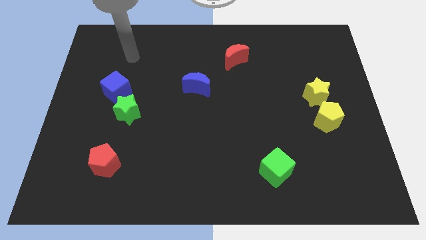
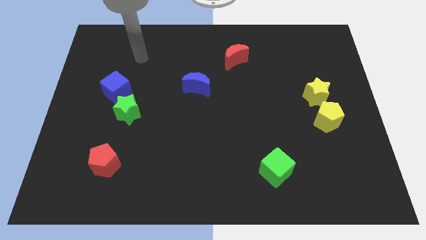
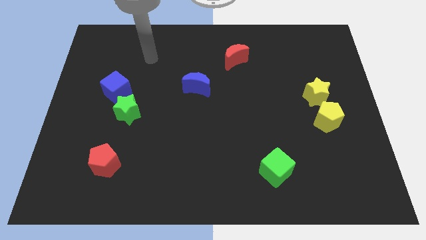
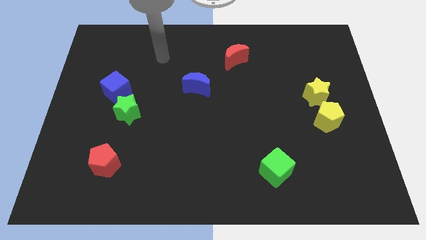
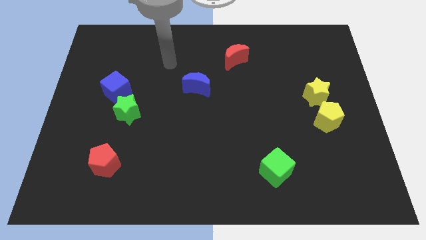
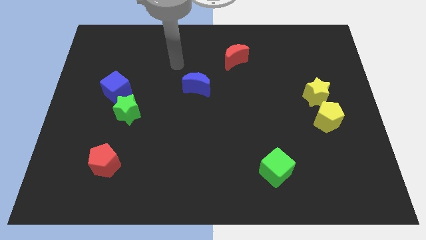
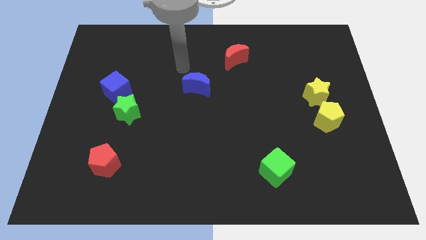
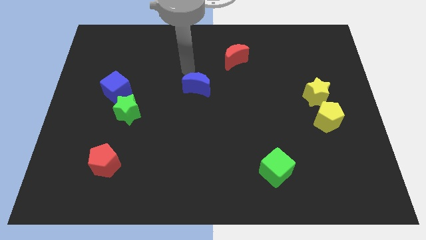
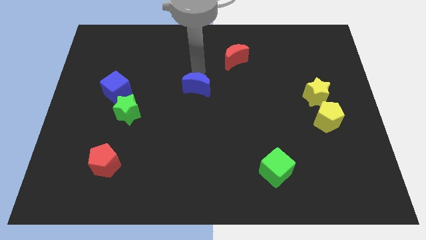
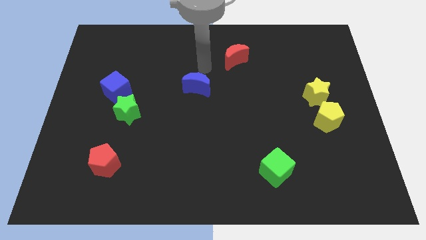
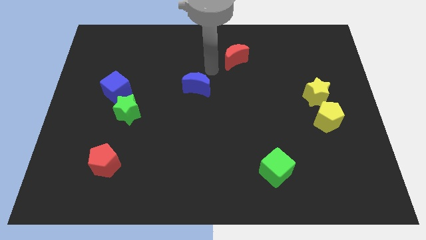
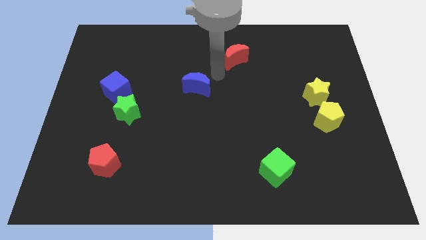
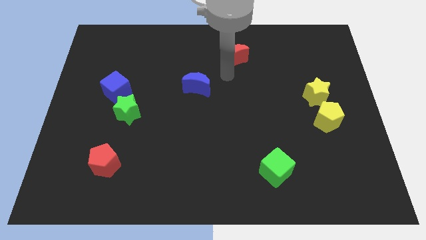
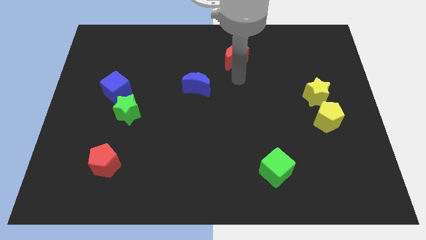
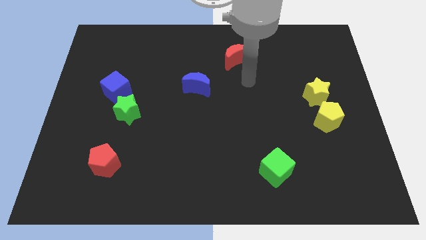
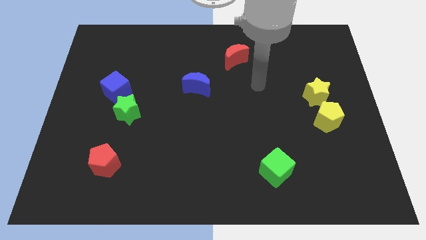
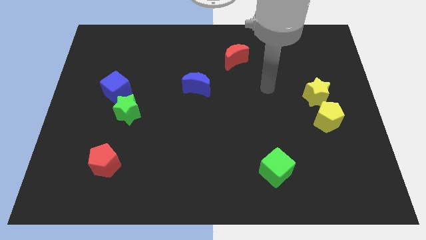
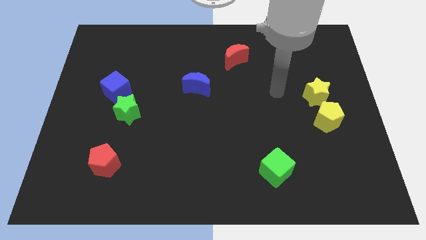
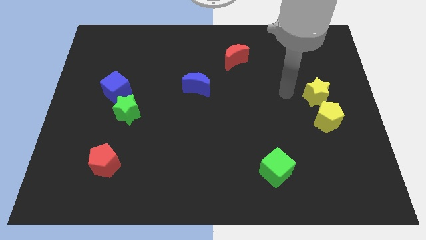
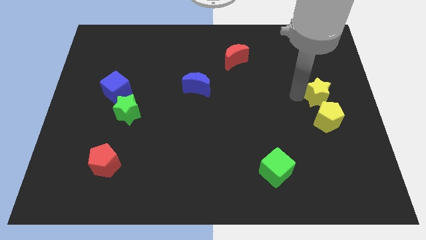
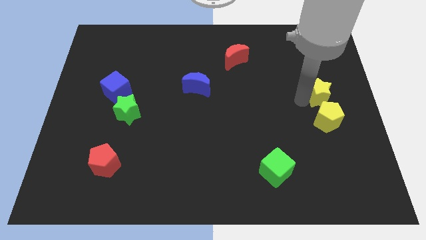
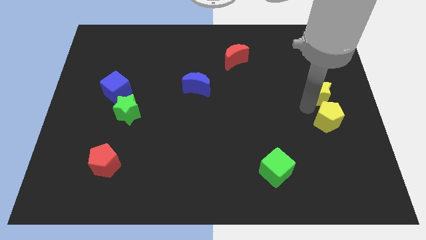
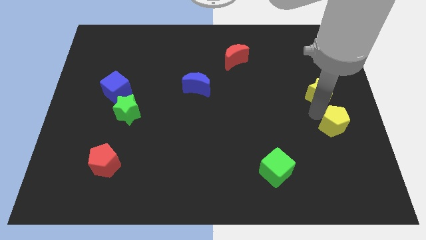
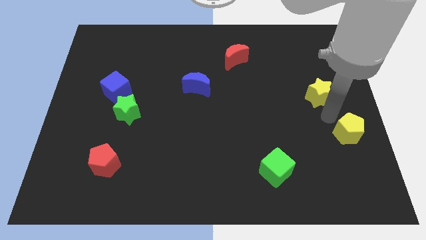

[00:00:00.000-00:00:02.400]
pull the yellow star apart from the yellow pentagon

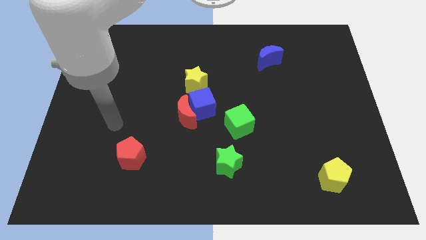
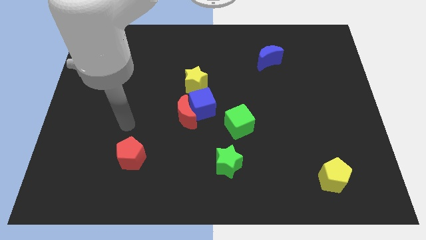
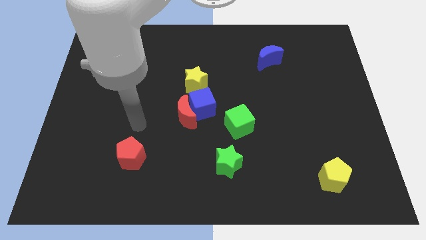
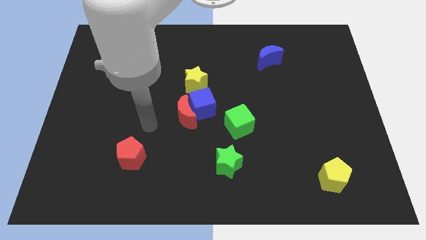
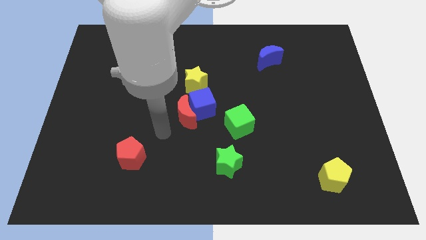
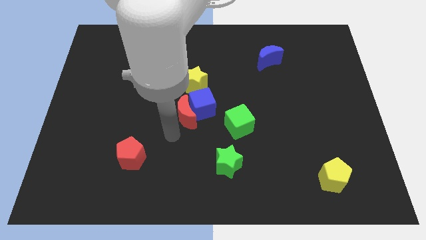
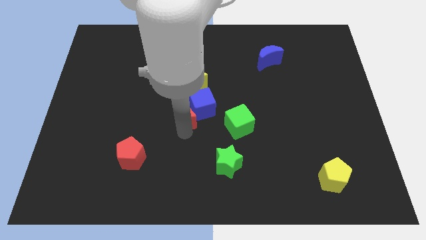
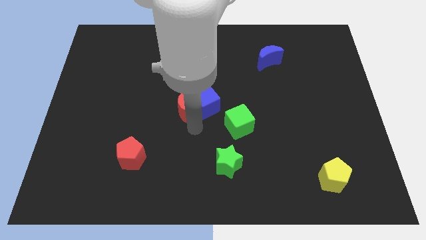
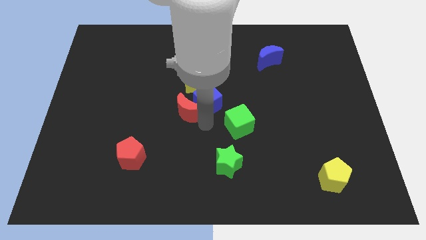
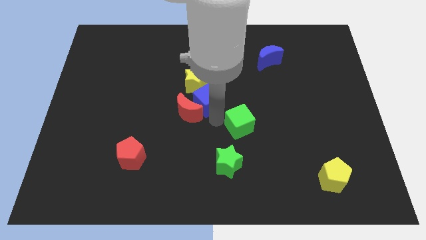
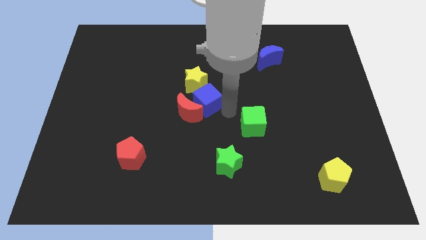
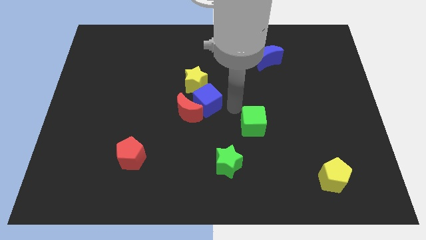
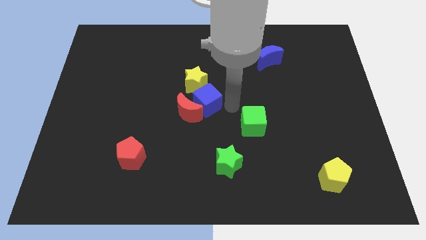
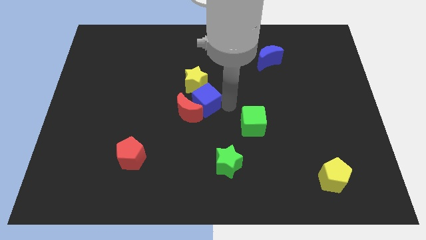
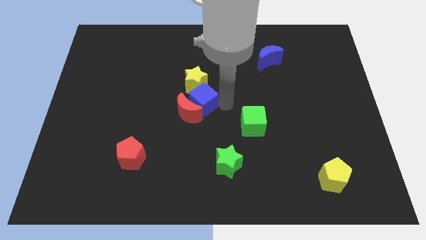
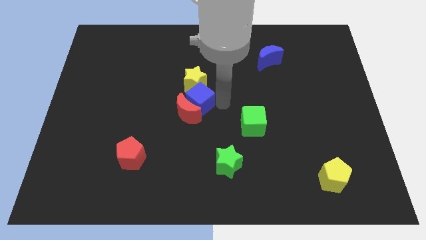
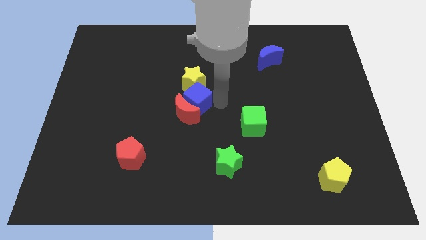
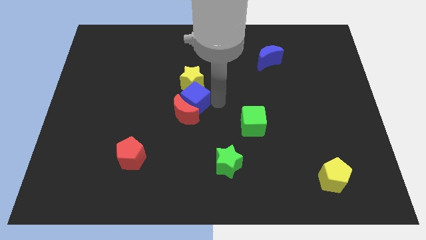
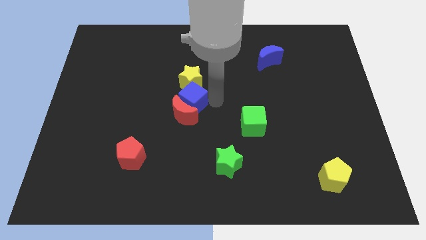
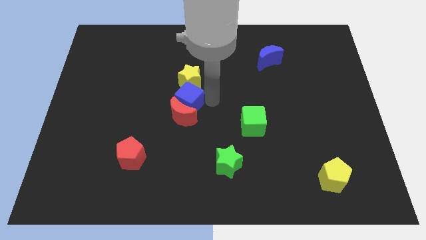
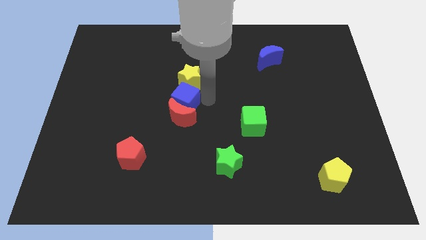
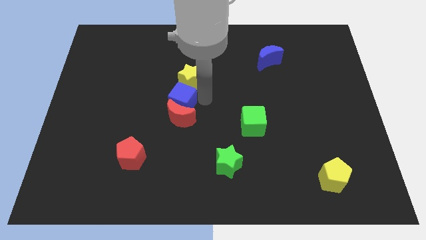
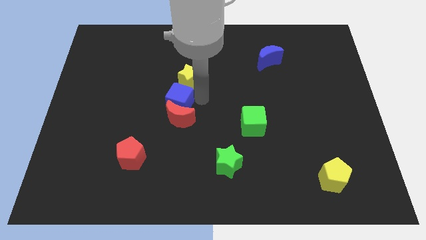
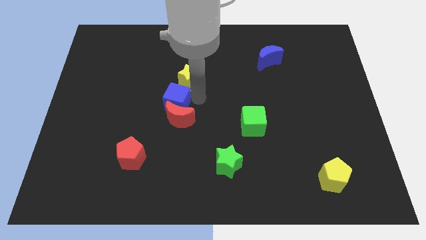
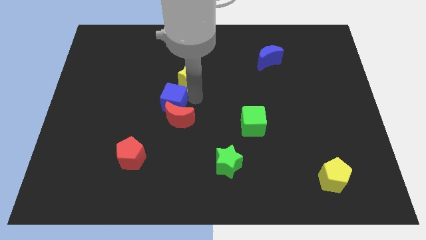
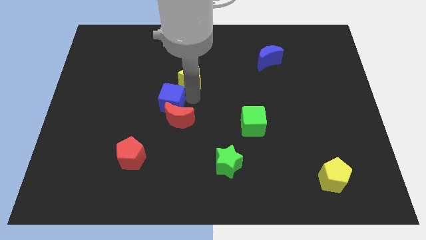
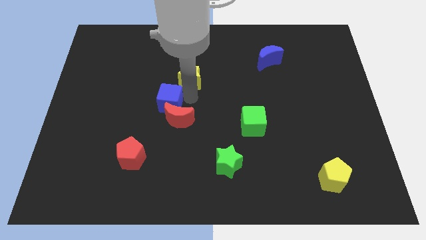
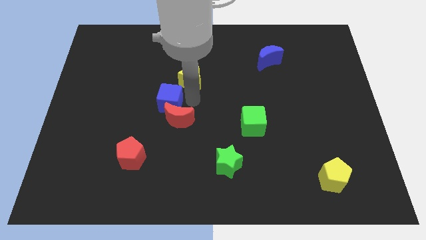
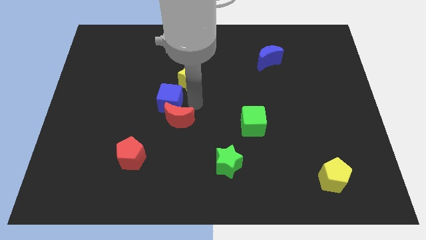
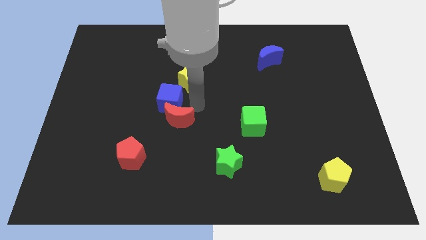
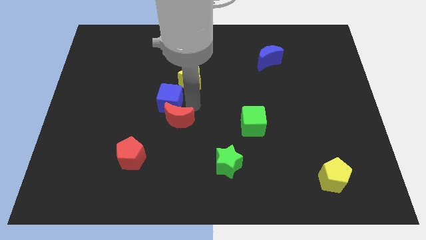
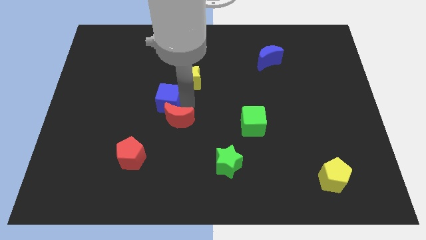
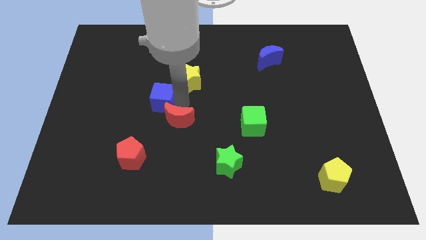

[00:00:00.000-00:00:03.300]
separate the blue cube from the clump

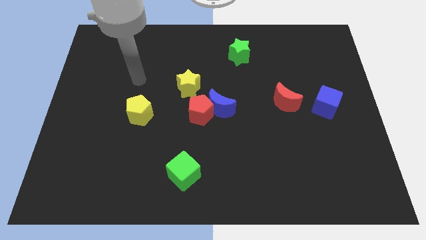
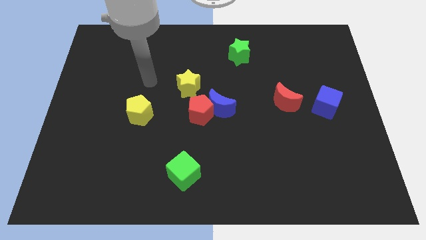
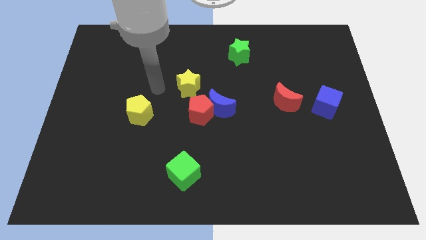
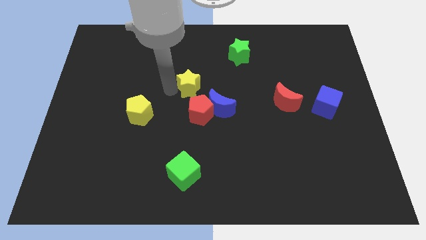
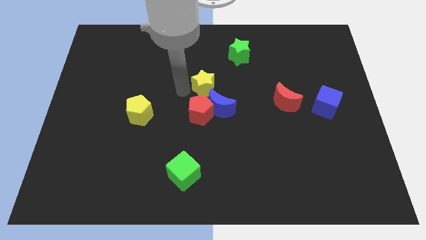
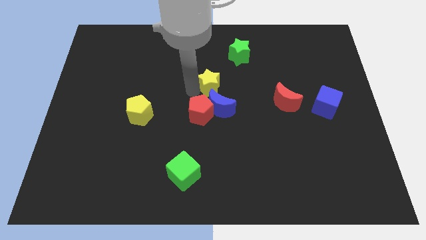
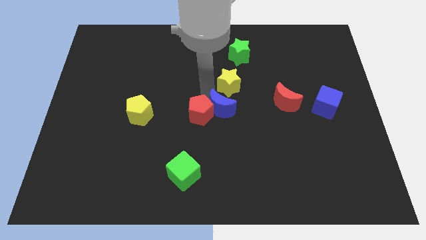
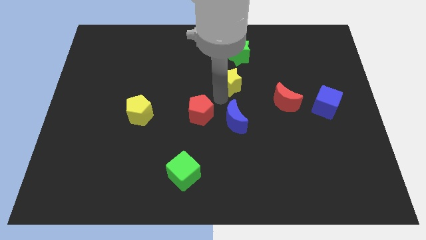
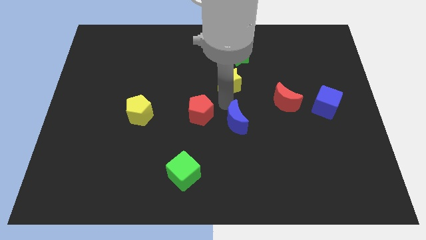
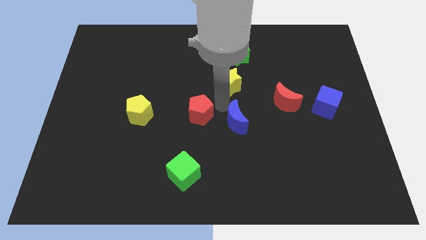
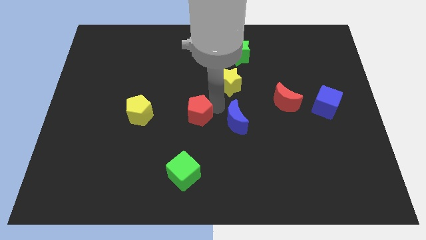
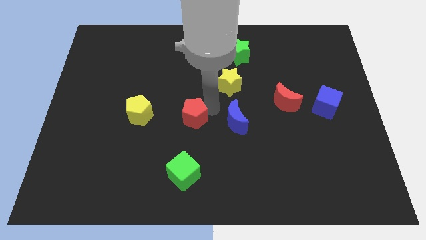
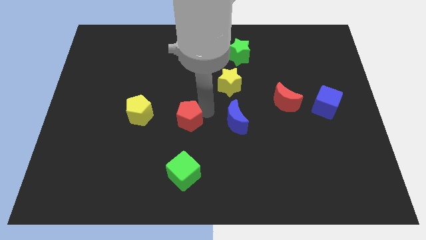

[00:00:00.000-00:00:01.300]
pull the red pentagon apart from the blue moon and yellow star

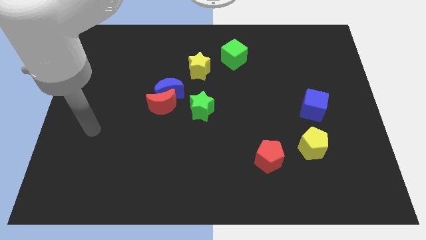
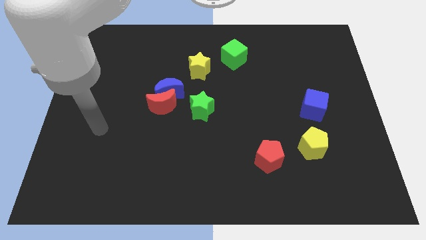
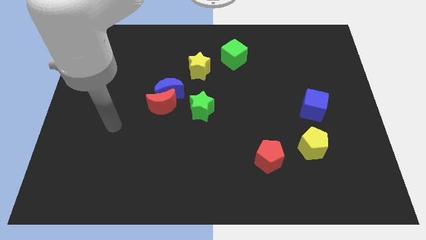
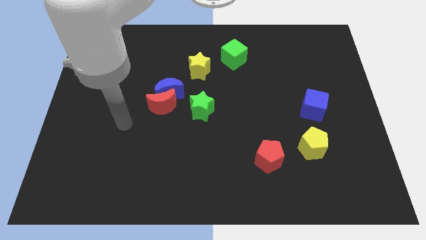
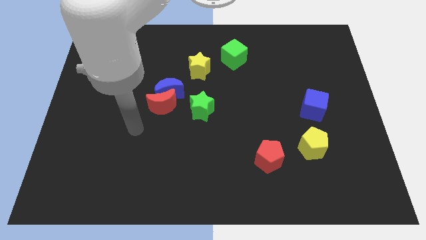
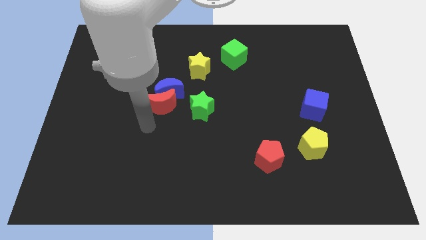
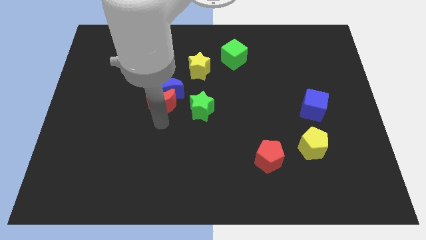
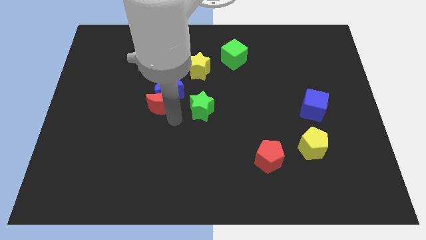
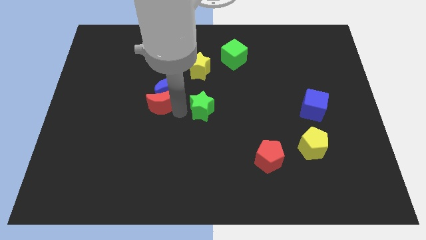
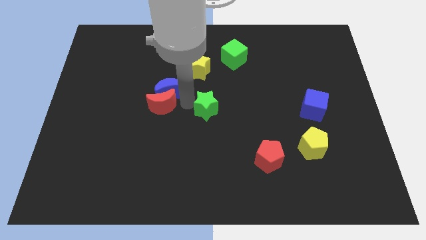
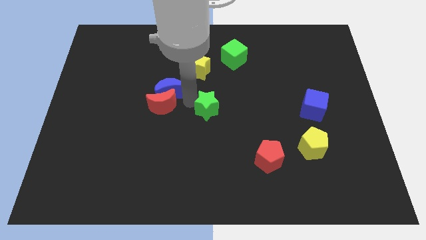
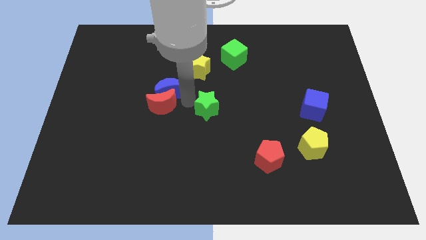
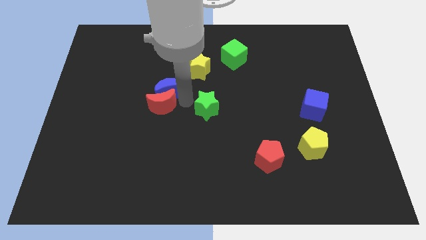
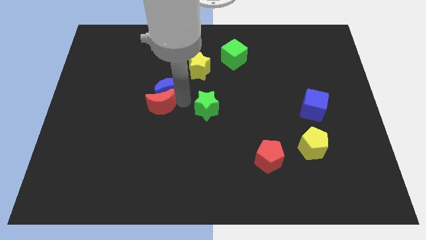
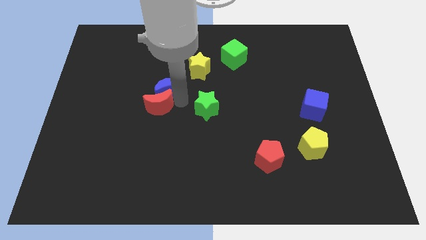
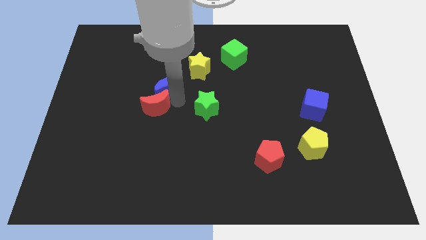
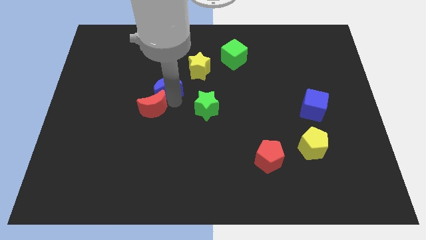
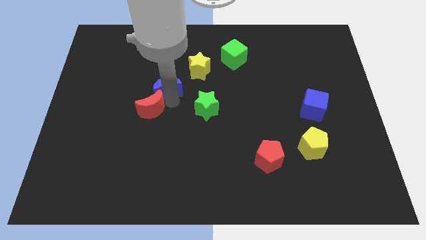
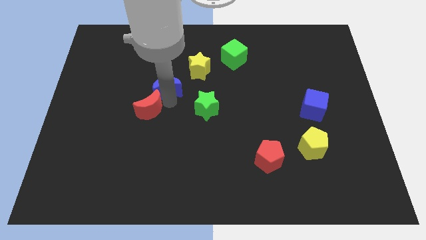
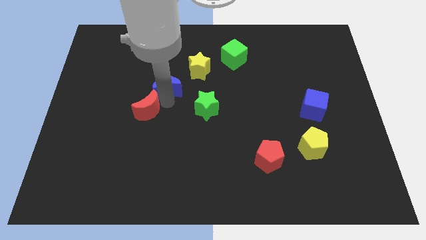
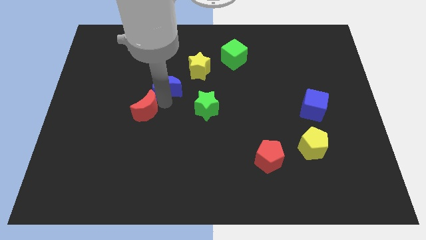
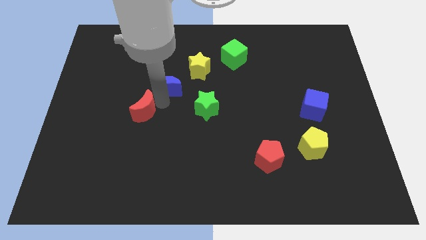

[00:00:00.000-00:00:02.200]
move the red moon away from the blue moon and green star

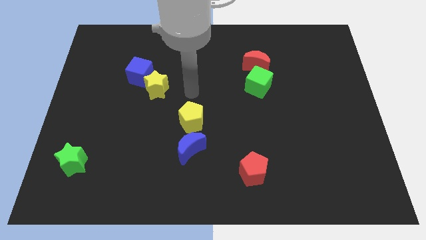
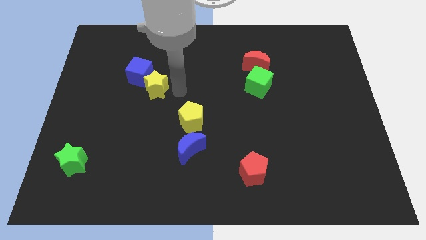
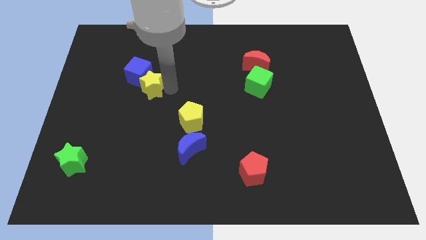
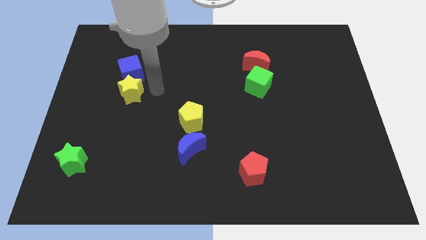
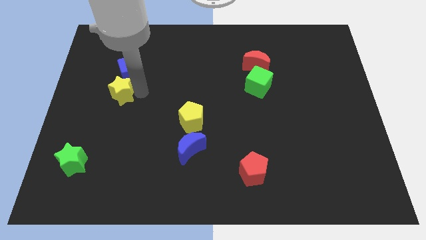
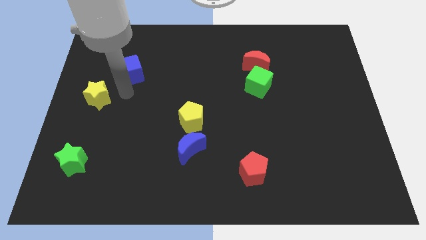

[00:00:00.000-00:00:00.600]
move the blue cube away from the yellow star
